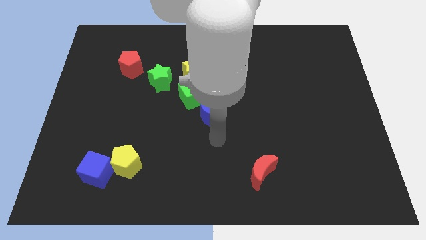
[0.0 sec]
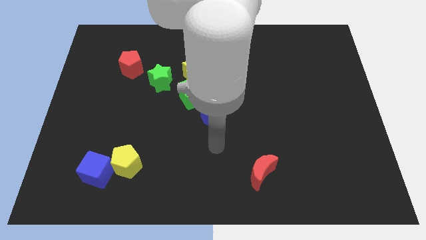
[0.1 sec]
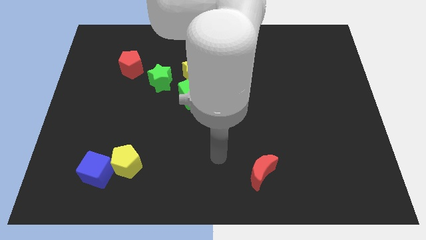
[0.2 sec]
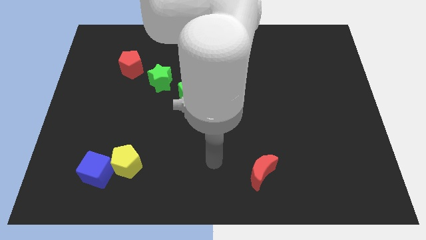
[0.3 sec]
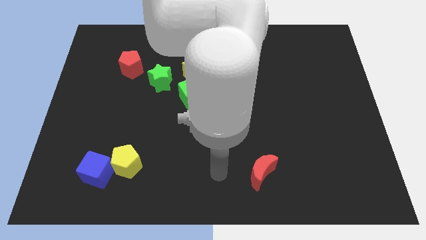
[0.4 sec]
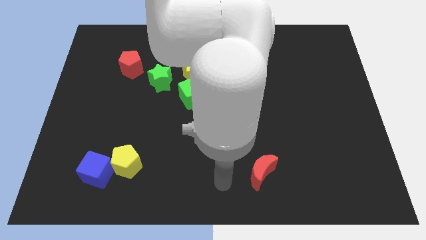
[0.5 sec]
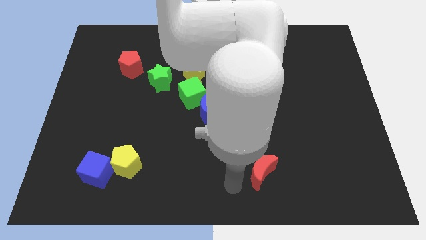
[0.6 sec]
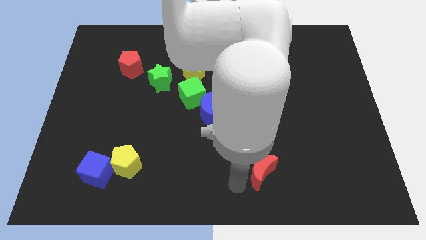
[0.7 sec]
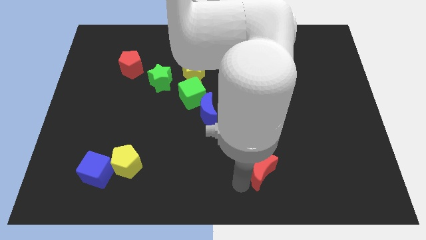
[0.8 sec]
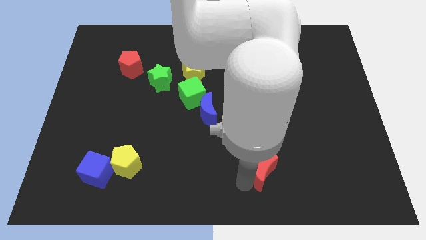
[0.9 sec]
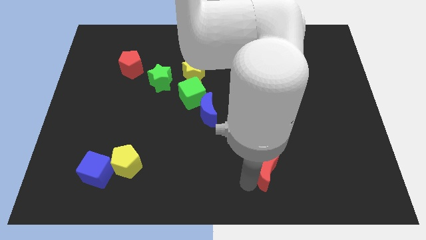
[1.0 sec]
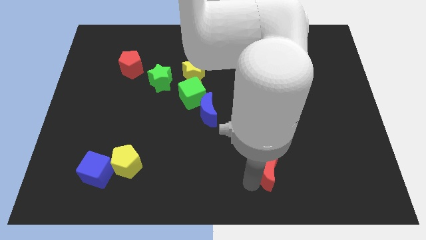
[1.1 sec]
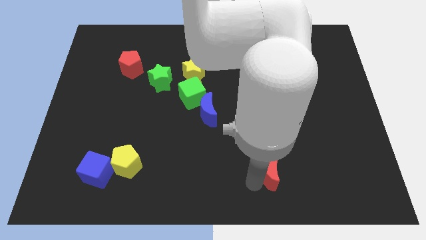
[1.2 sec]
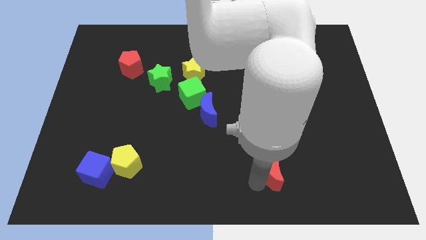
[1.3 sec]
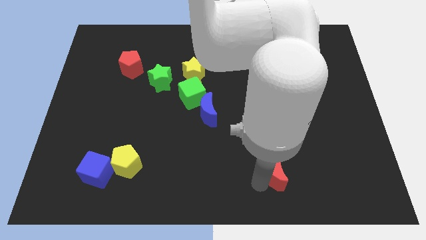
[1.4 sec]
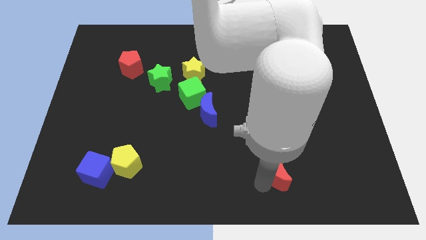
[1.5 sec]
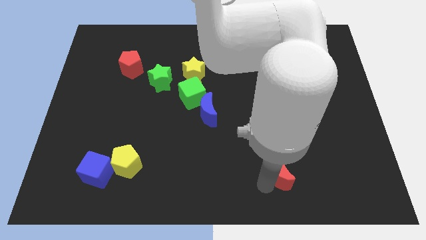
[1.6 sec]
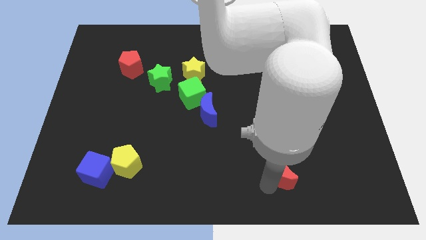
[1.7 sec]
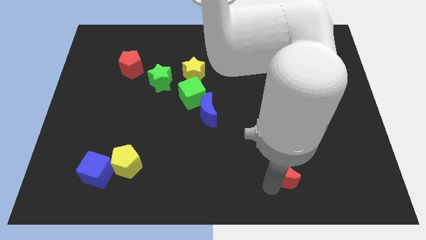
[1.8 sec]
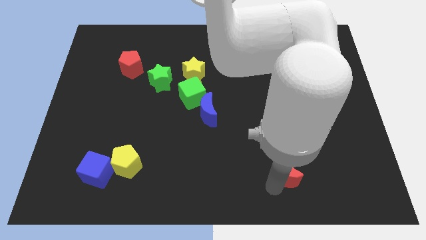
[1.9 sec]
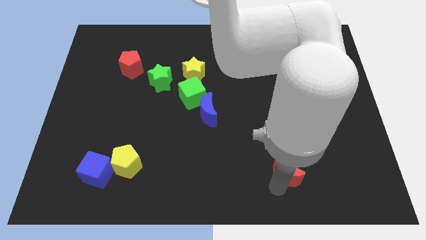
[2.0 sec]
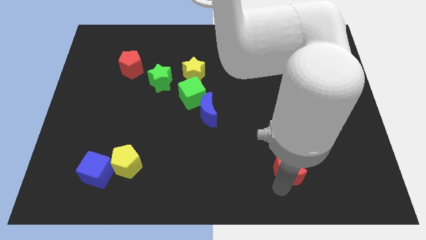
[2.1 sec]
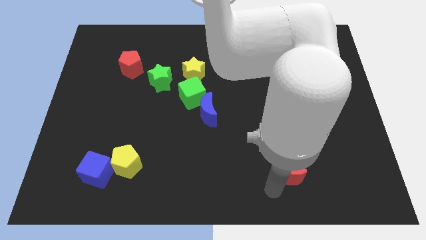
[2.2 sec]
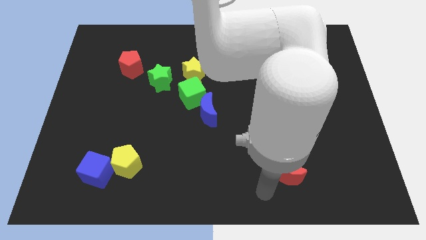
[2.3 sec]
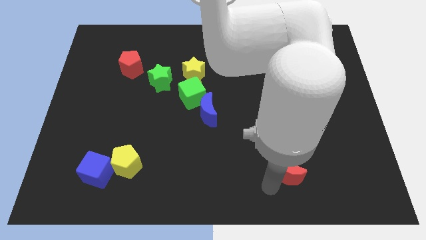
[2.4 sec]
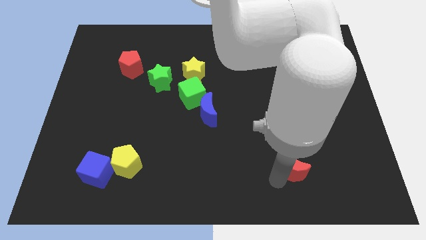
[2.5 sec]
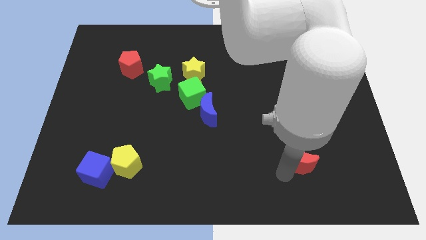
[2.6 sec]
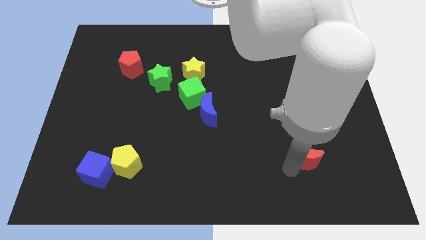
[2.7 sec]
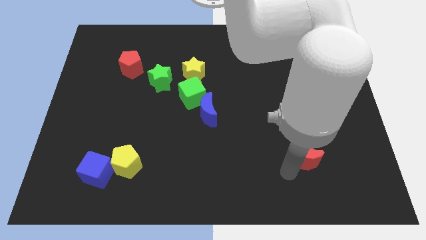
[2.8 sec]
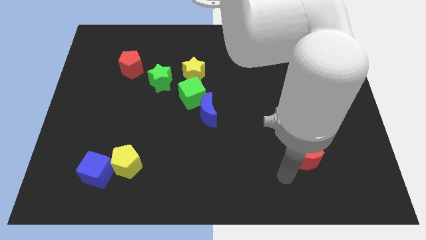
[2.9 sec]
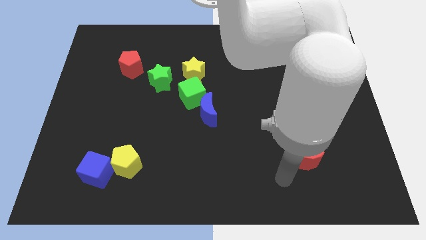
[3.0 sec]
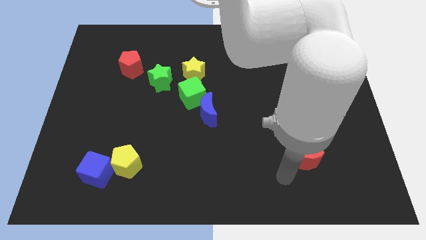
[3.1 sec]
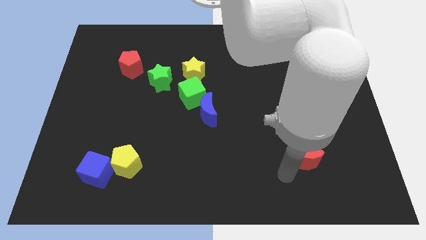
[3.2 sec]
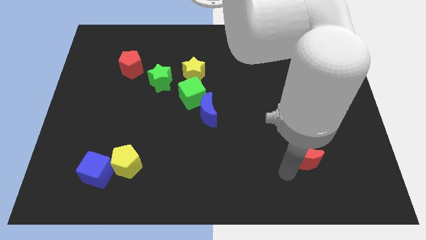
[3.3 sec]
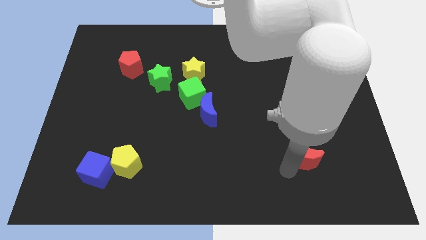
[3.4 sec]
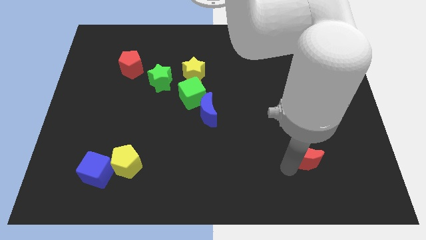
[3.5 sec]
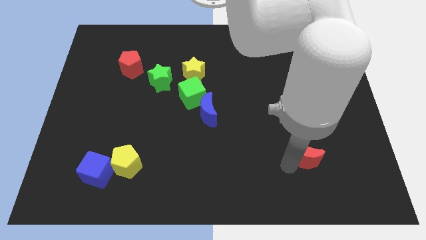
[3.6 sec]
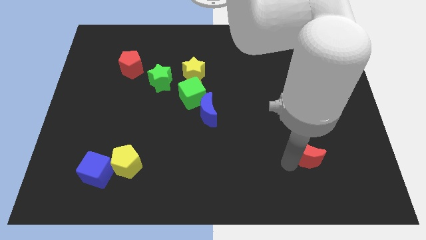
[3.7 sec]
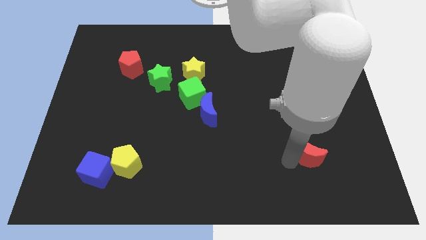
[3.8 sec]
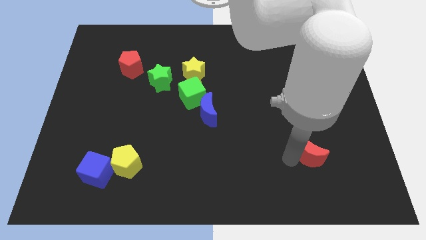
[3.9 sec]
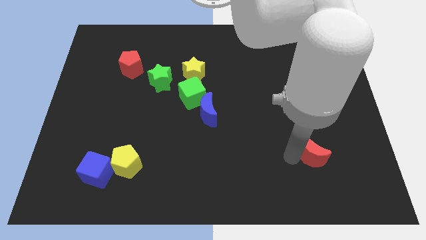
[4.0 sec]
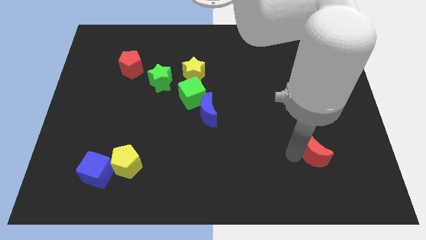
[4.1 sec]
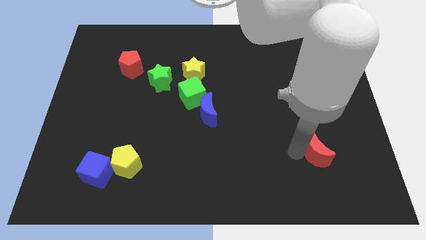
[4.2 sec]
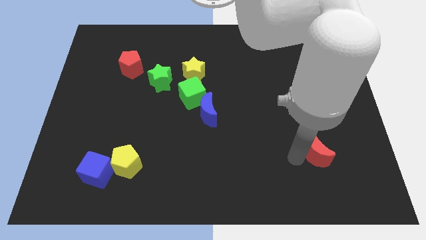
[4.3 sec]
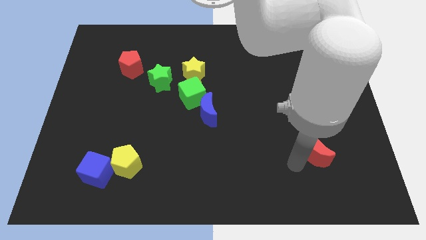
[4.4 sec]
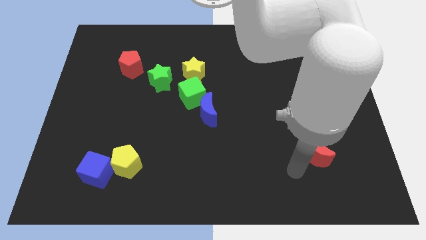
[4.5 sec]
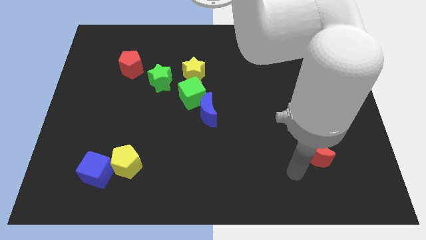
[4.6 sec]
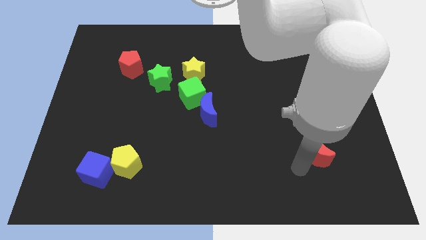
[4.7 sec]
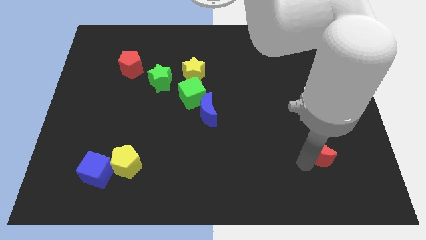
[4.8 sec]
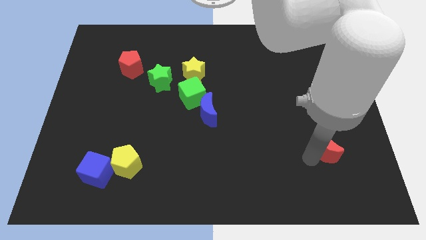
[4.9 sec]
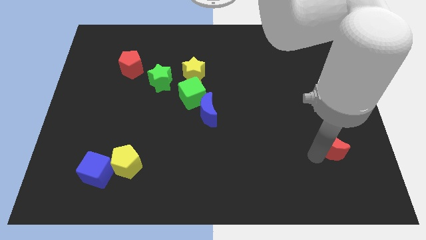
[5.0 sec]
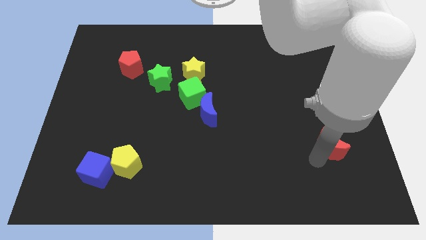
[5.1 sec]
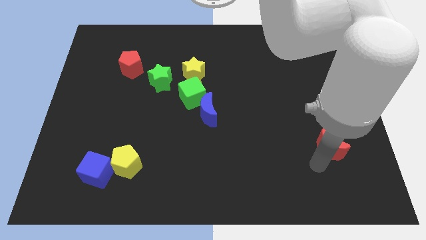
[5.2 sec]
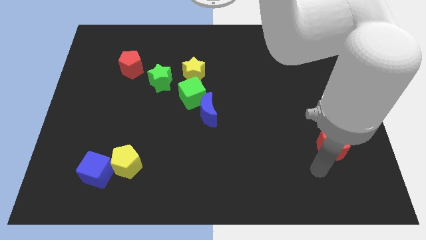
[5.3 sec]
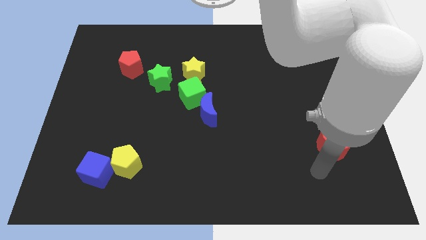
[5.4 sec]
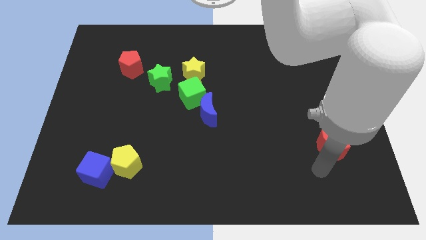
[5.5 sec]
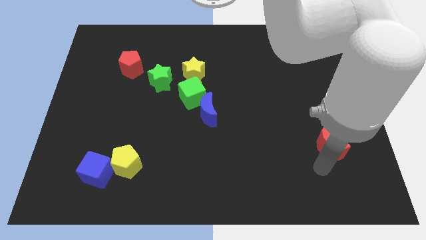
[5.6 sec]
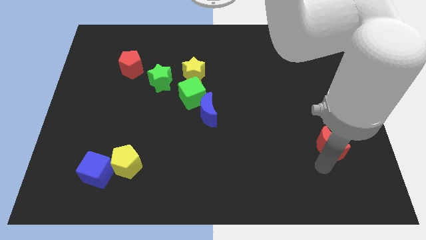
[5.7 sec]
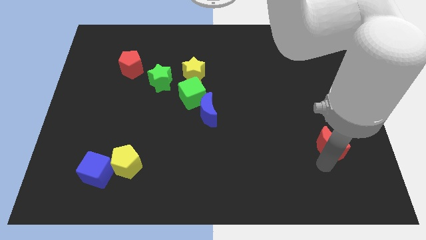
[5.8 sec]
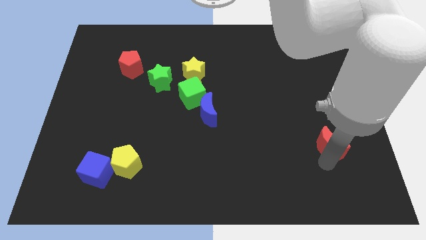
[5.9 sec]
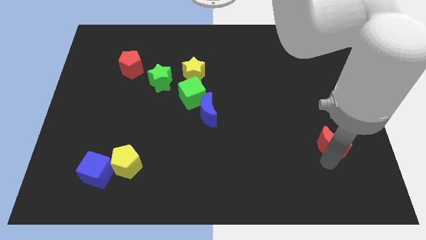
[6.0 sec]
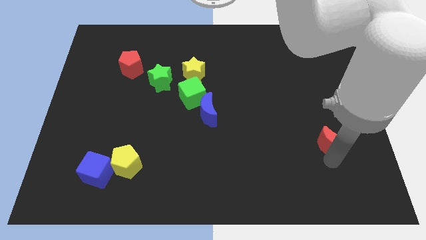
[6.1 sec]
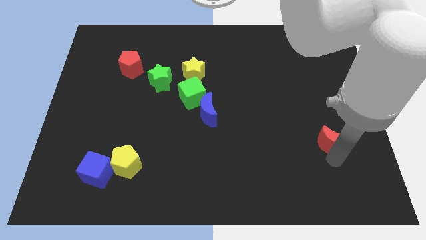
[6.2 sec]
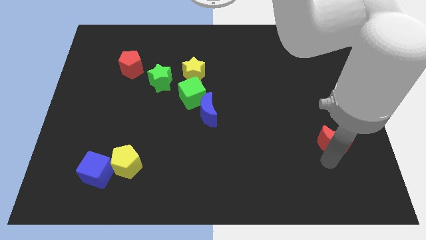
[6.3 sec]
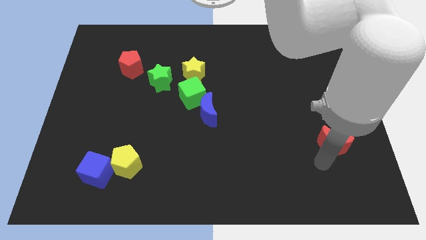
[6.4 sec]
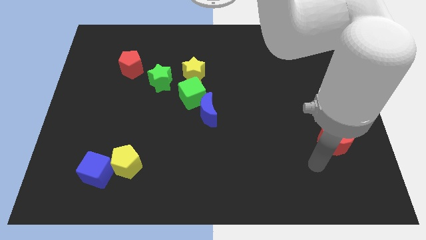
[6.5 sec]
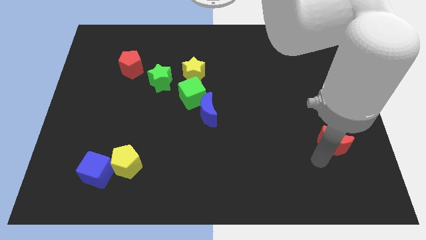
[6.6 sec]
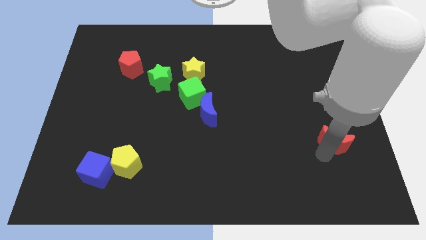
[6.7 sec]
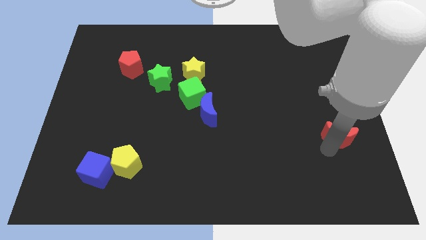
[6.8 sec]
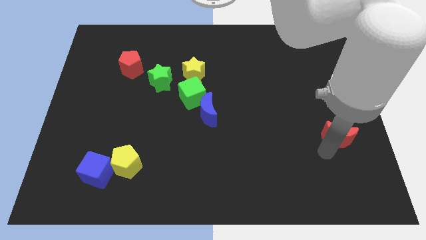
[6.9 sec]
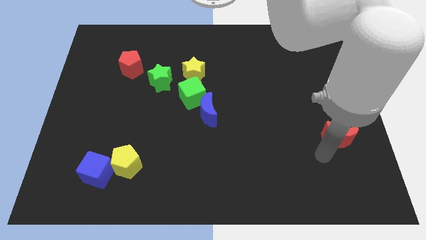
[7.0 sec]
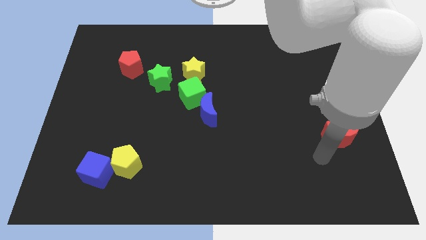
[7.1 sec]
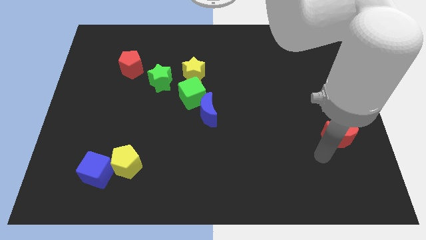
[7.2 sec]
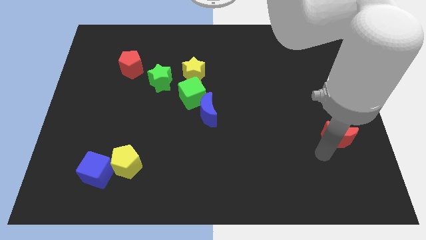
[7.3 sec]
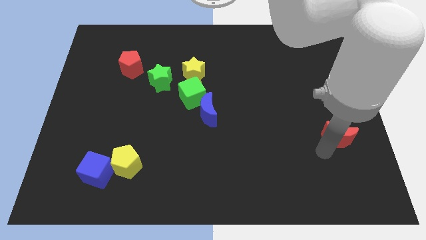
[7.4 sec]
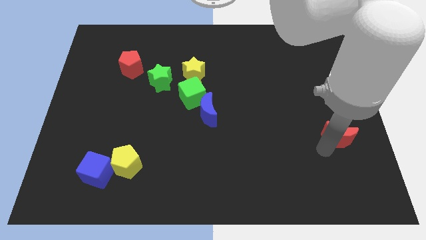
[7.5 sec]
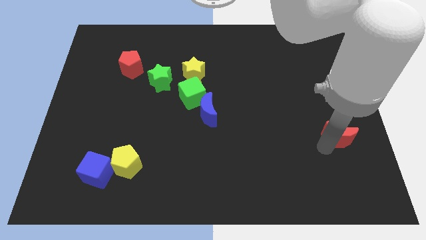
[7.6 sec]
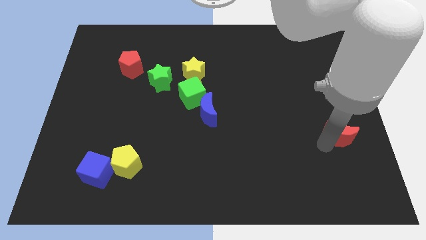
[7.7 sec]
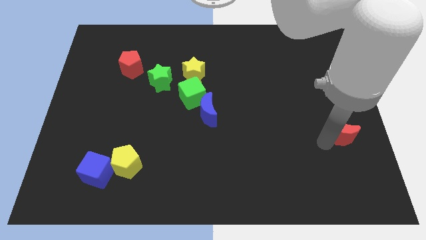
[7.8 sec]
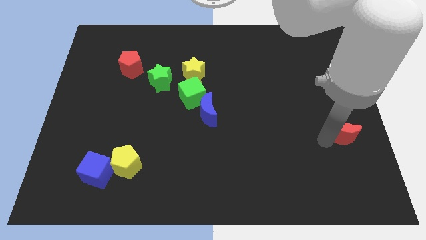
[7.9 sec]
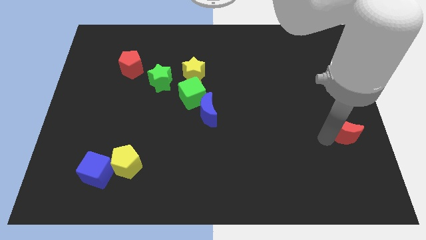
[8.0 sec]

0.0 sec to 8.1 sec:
put the red moon to the right side of the board
